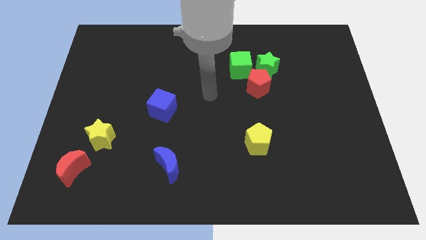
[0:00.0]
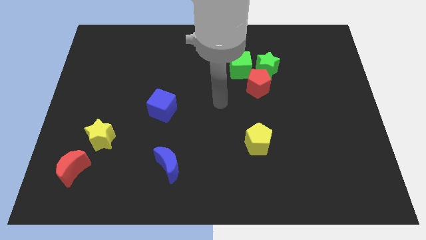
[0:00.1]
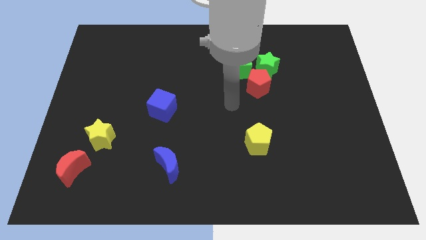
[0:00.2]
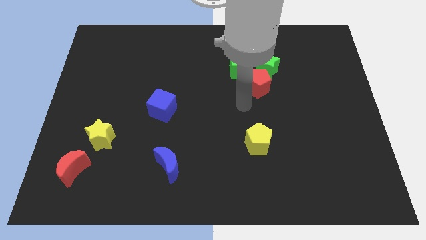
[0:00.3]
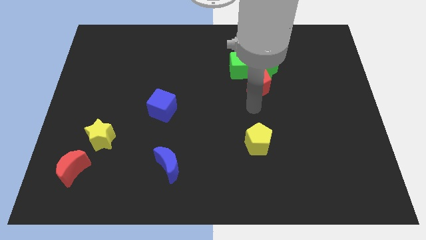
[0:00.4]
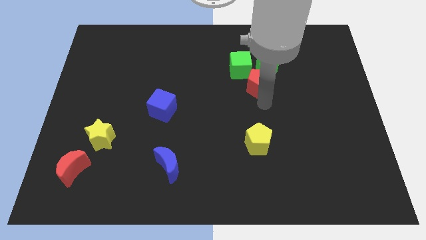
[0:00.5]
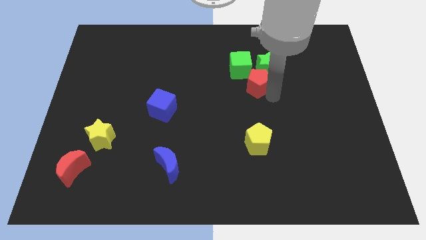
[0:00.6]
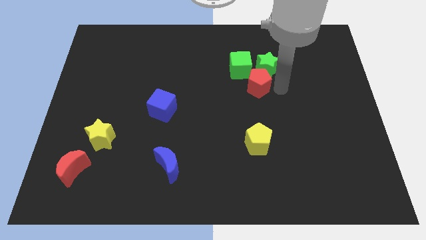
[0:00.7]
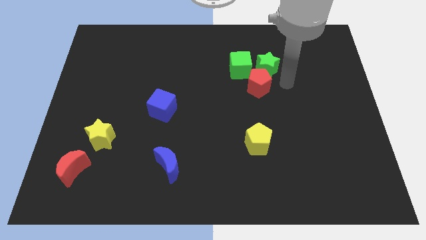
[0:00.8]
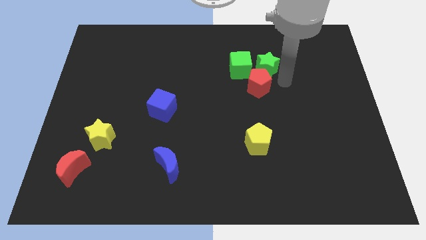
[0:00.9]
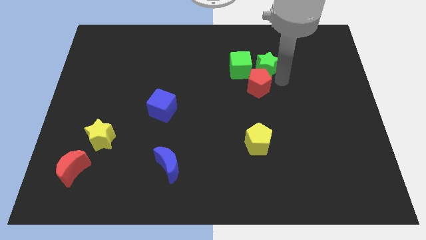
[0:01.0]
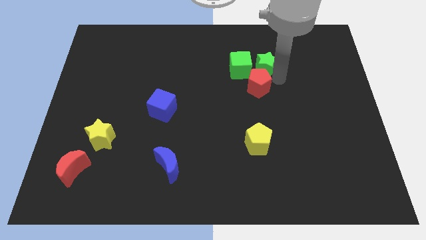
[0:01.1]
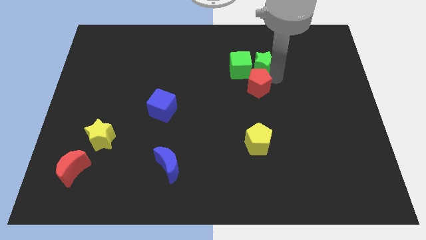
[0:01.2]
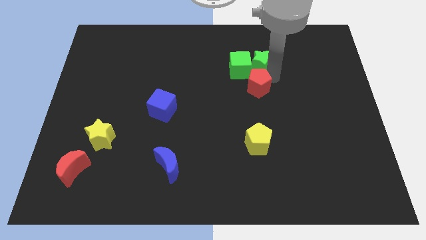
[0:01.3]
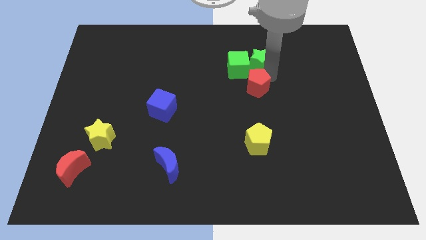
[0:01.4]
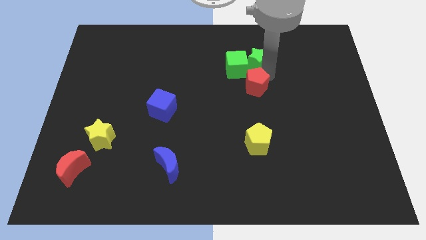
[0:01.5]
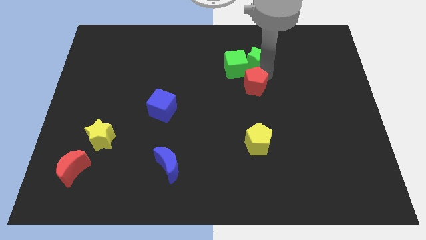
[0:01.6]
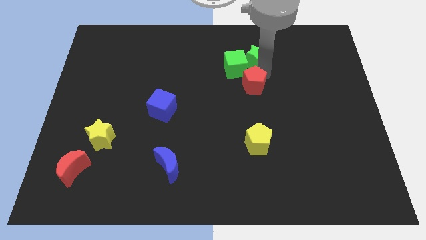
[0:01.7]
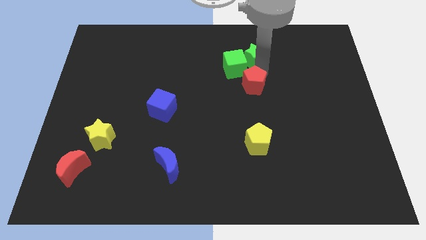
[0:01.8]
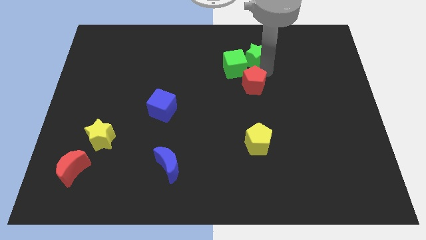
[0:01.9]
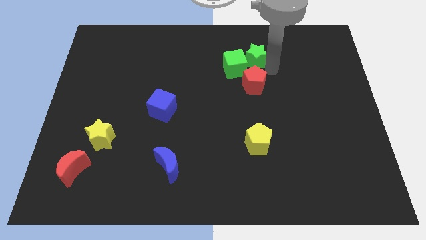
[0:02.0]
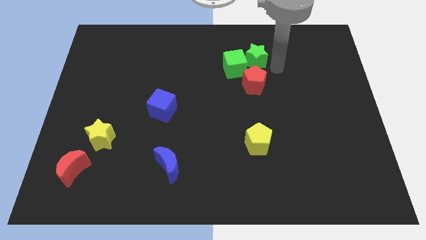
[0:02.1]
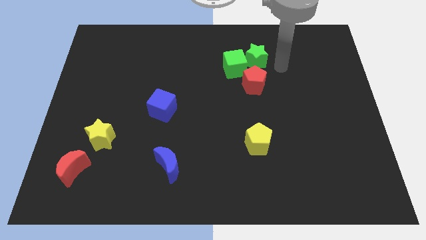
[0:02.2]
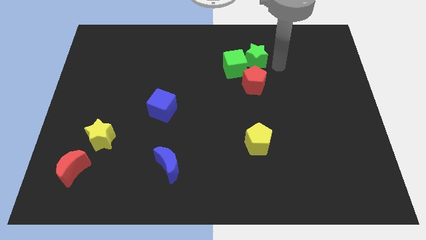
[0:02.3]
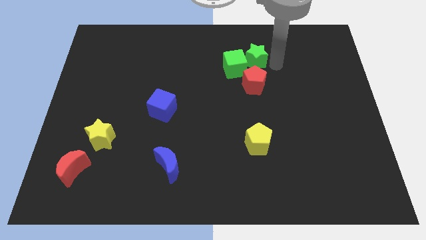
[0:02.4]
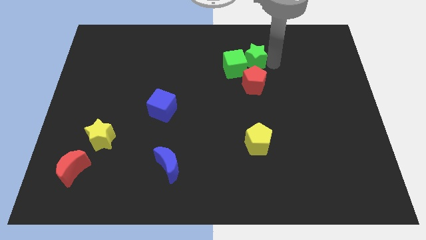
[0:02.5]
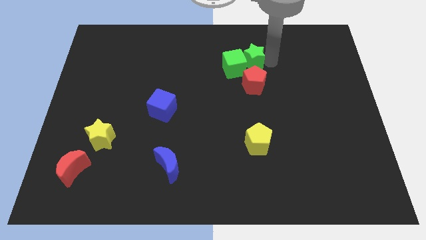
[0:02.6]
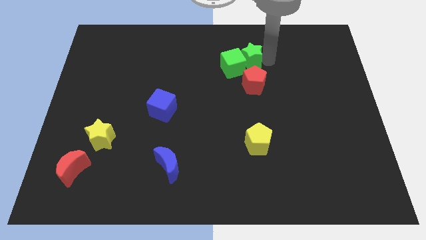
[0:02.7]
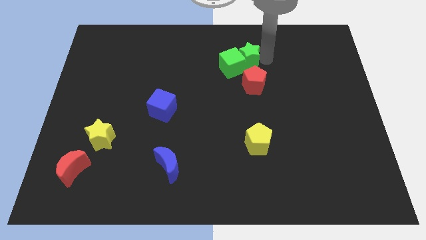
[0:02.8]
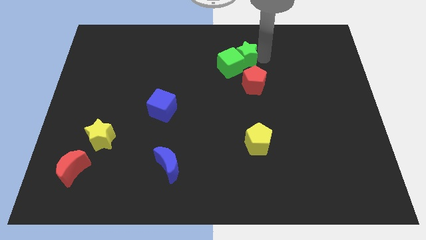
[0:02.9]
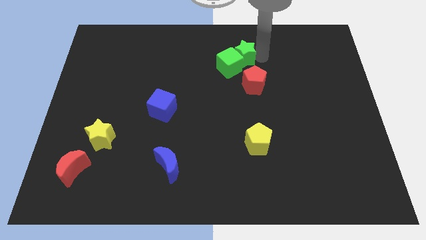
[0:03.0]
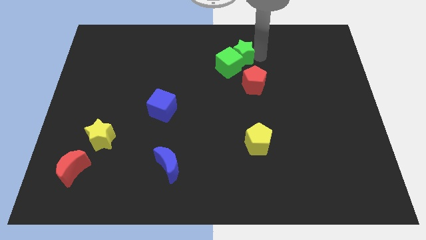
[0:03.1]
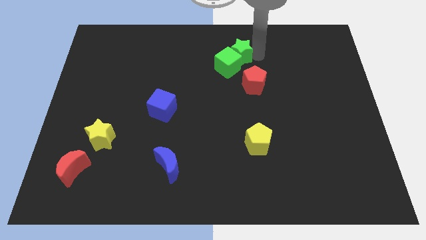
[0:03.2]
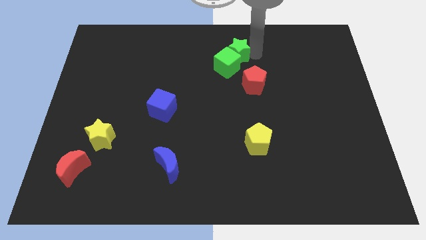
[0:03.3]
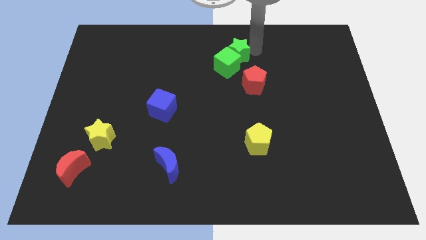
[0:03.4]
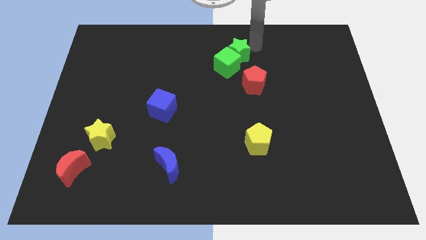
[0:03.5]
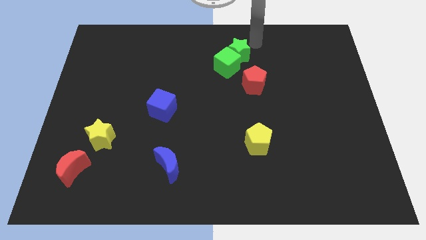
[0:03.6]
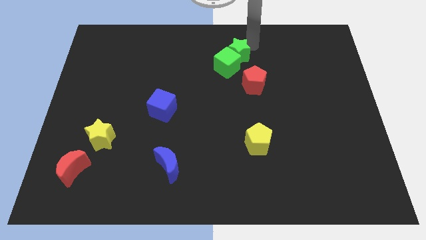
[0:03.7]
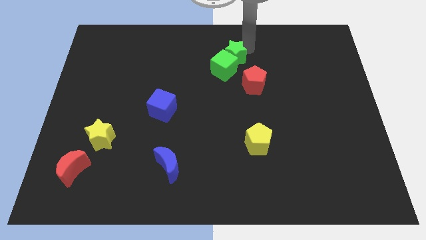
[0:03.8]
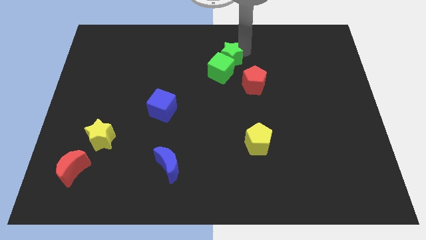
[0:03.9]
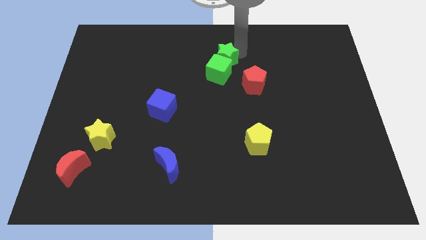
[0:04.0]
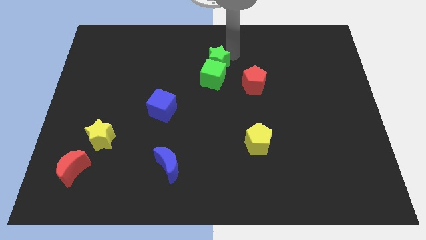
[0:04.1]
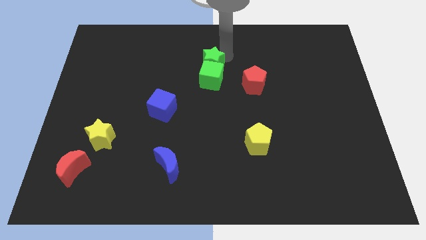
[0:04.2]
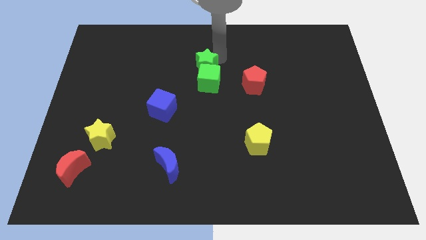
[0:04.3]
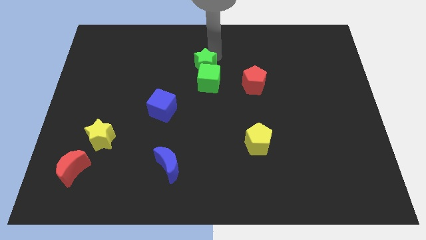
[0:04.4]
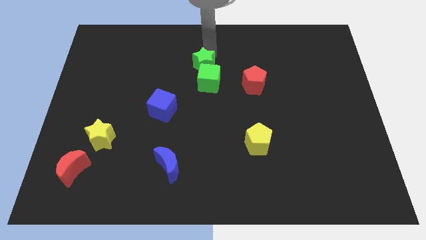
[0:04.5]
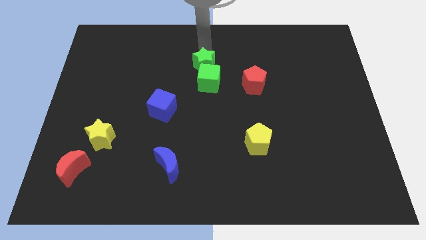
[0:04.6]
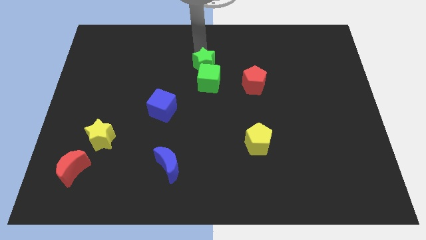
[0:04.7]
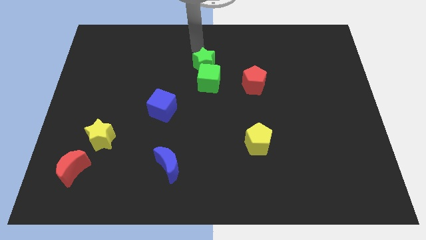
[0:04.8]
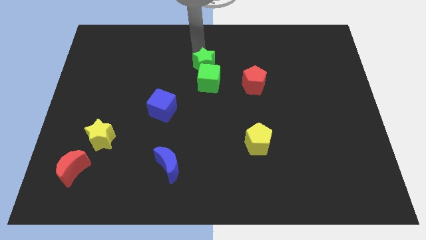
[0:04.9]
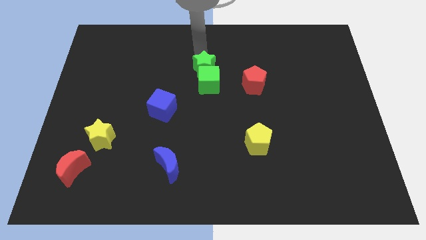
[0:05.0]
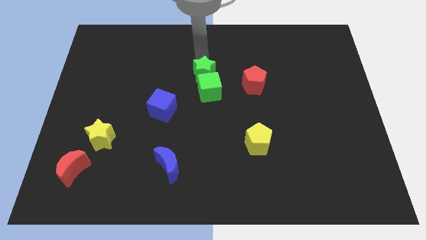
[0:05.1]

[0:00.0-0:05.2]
slide the green star diagonally downwards and left a little

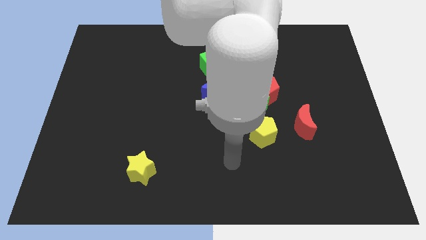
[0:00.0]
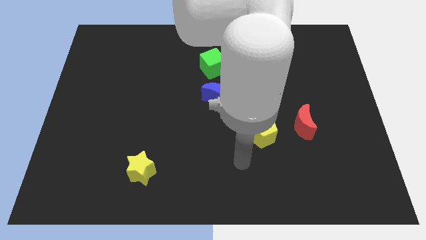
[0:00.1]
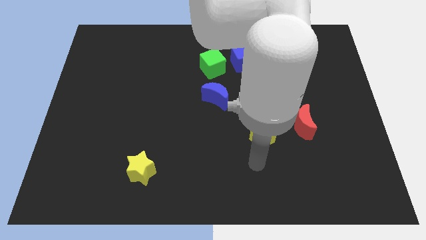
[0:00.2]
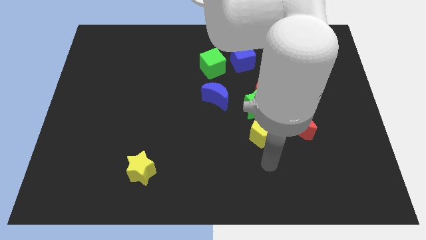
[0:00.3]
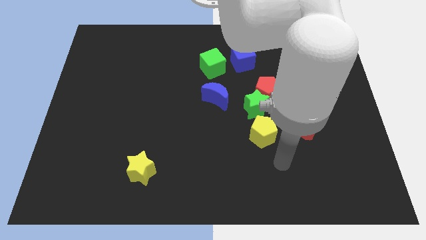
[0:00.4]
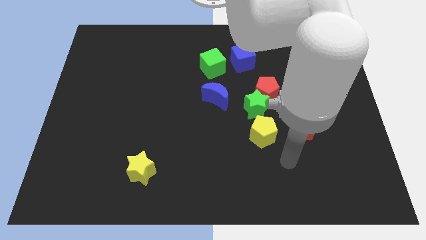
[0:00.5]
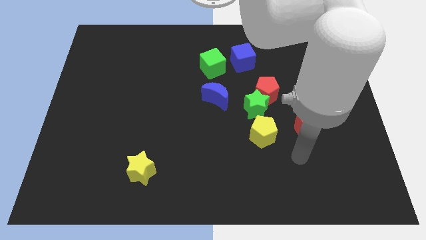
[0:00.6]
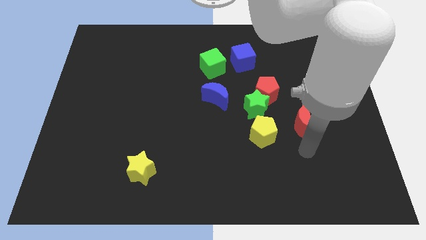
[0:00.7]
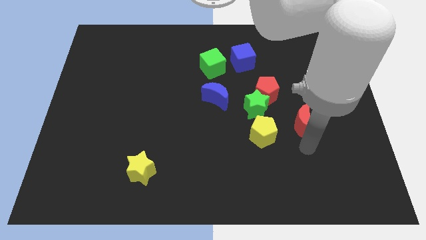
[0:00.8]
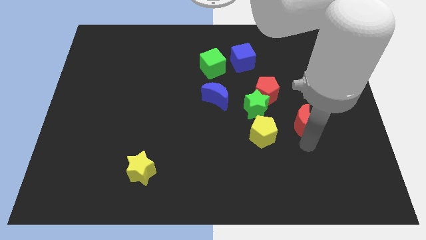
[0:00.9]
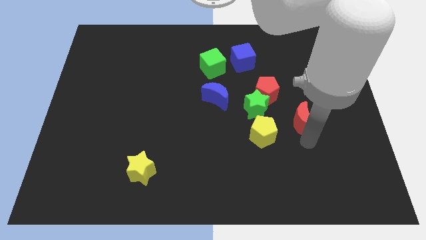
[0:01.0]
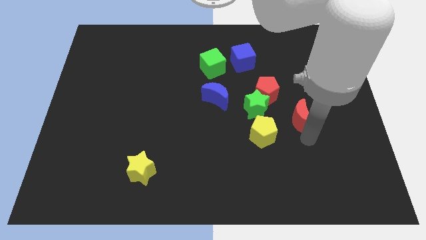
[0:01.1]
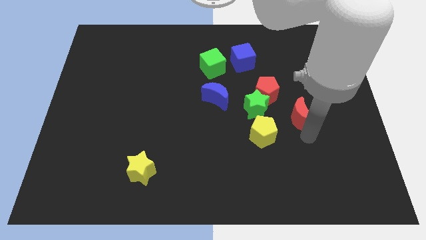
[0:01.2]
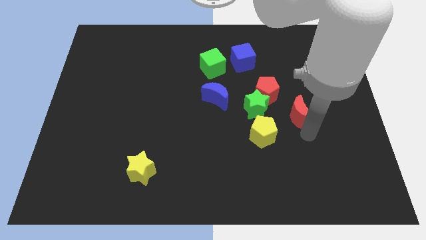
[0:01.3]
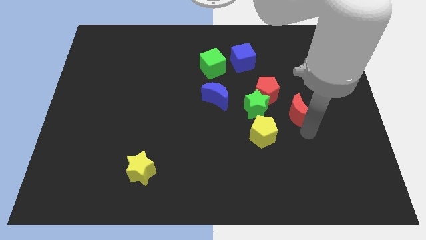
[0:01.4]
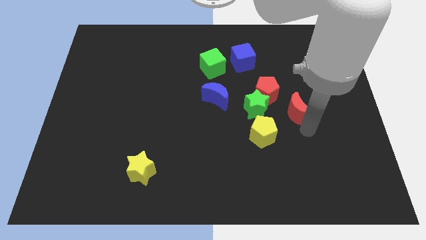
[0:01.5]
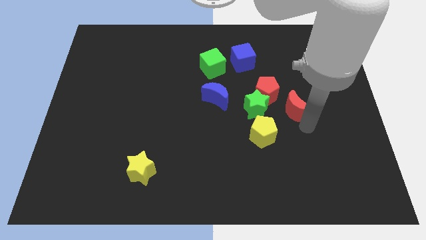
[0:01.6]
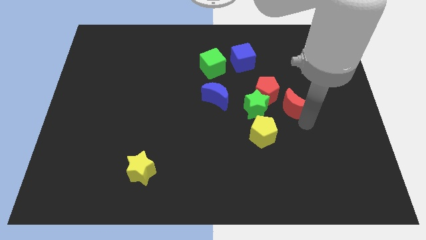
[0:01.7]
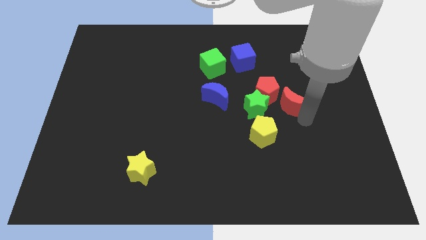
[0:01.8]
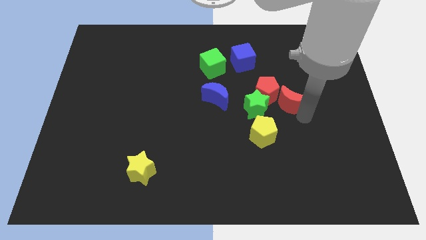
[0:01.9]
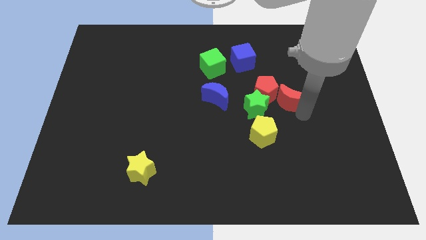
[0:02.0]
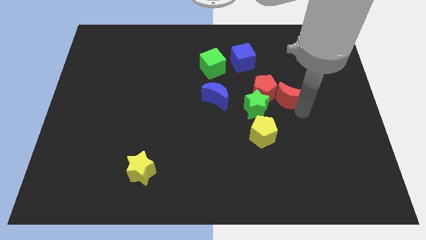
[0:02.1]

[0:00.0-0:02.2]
push the red moon up slightly

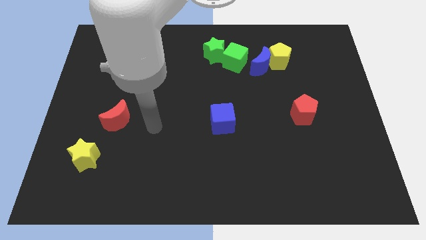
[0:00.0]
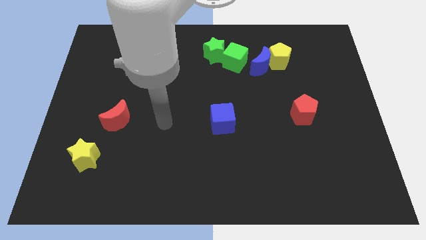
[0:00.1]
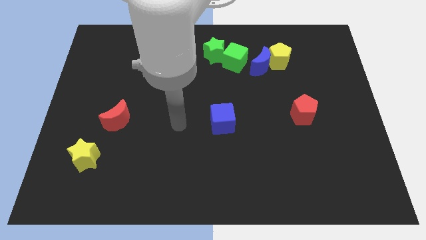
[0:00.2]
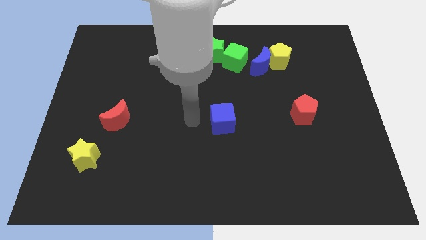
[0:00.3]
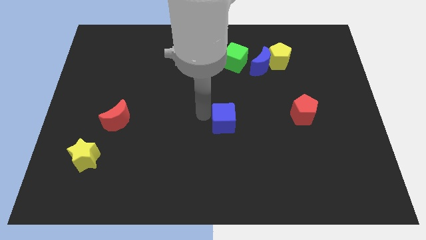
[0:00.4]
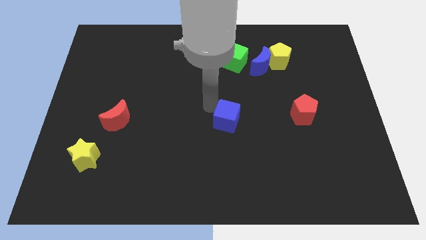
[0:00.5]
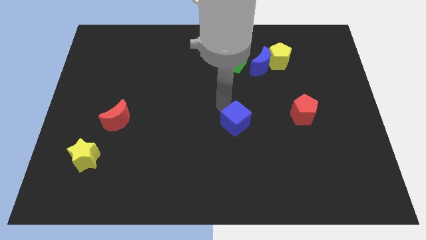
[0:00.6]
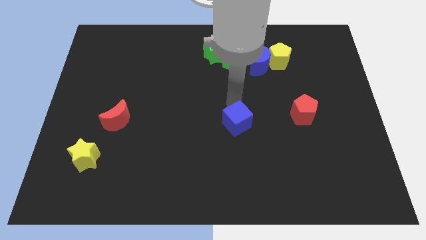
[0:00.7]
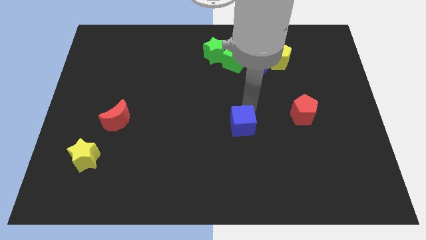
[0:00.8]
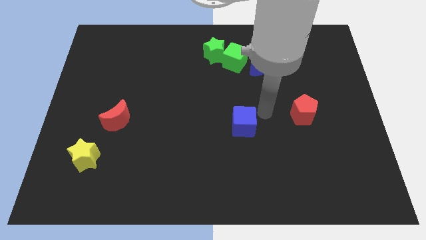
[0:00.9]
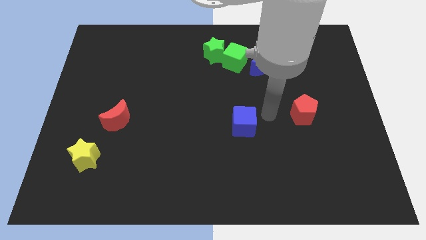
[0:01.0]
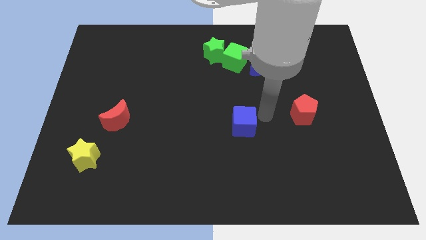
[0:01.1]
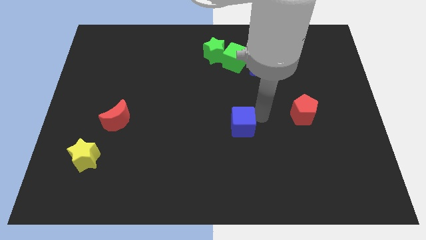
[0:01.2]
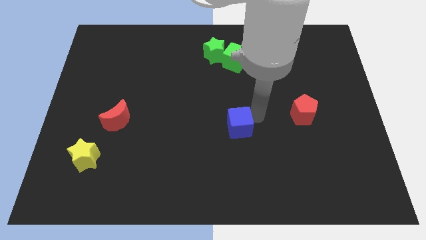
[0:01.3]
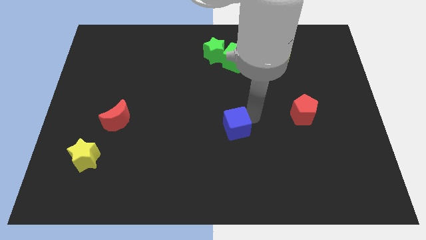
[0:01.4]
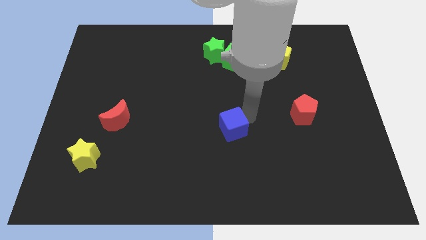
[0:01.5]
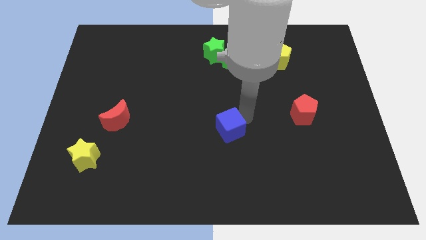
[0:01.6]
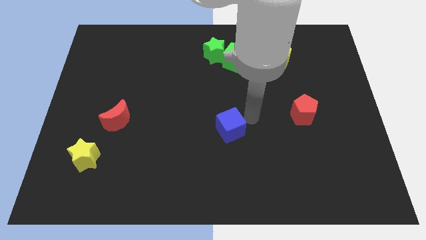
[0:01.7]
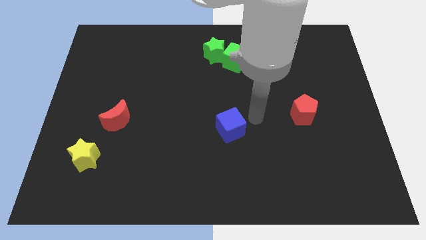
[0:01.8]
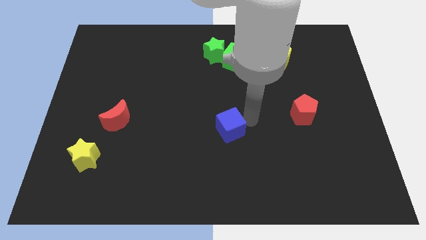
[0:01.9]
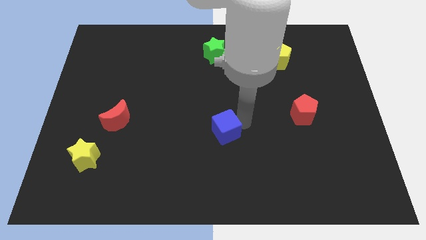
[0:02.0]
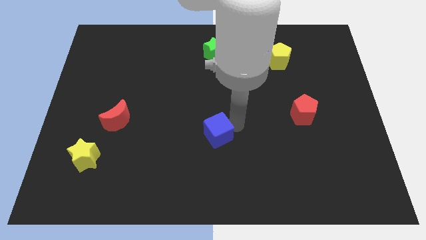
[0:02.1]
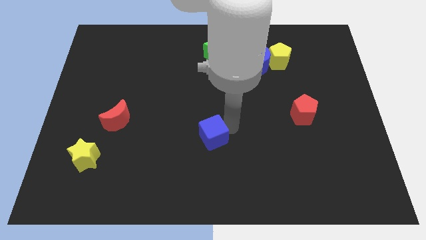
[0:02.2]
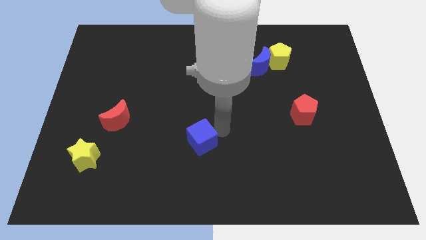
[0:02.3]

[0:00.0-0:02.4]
push the blue cube down and then left a little
